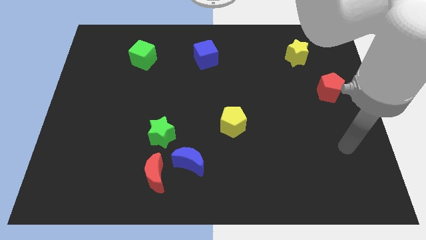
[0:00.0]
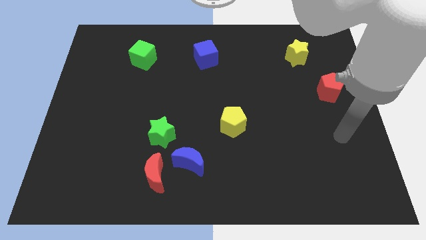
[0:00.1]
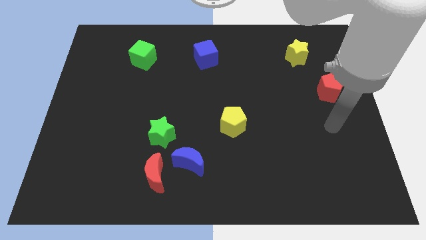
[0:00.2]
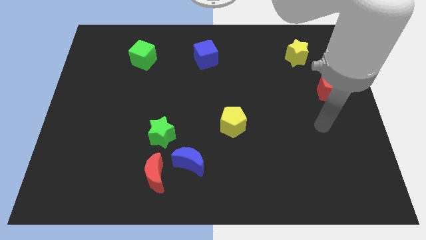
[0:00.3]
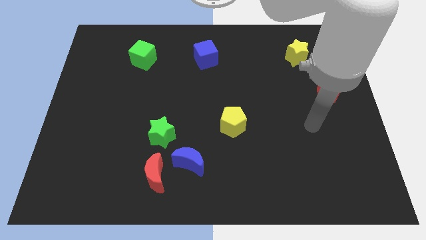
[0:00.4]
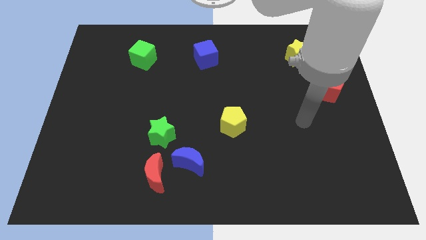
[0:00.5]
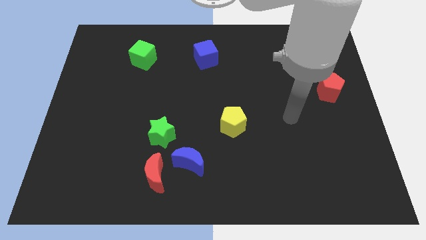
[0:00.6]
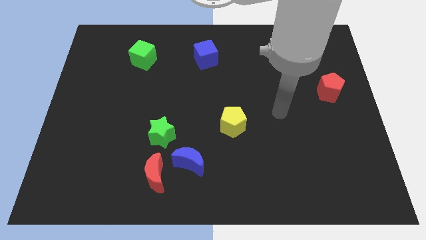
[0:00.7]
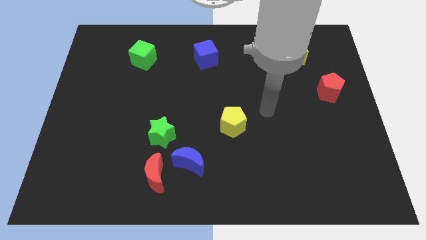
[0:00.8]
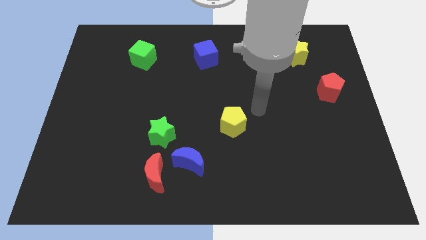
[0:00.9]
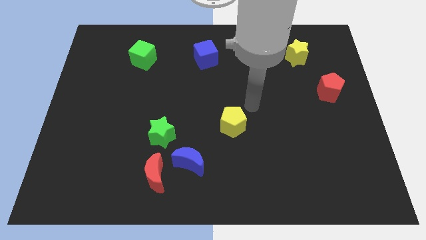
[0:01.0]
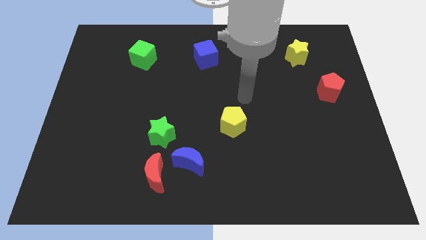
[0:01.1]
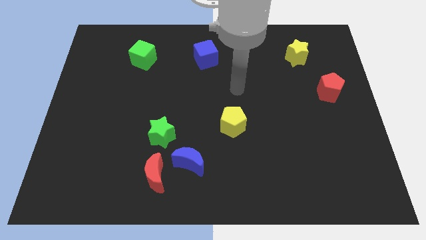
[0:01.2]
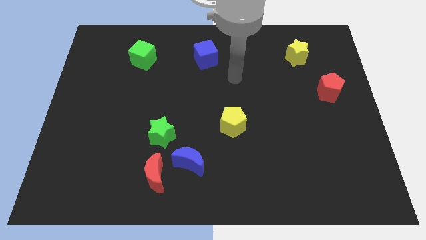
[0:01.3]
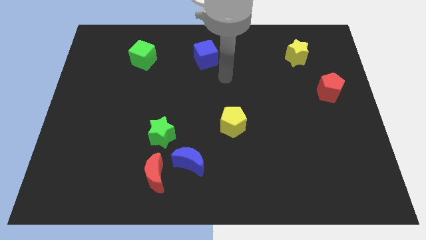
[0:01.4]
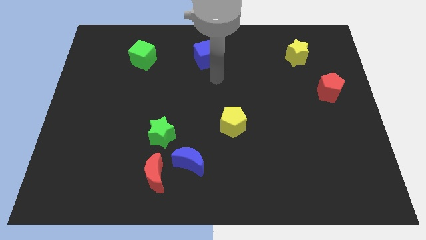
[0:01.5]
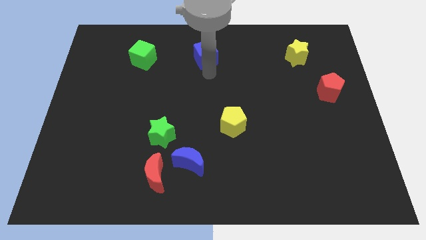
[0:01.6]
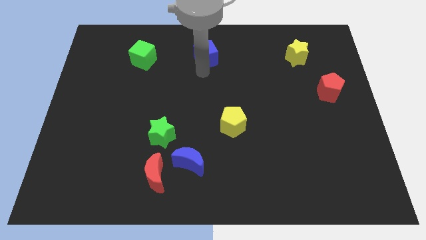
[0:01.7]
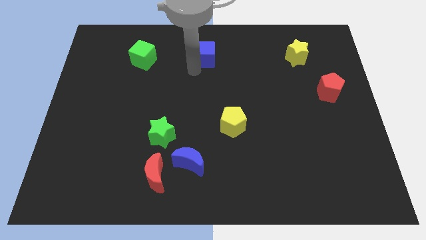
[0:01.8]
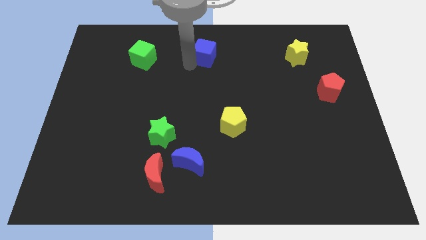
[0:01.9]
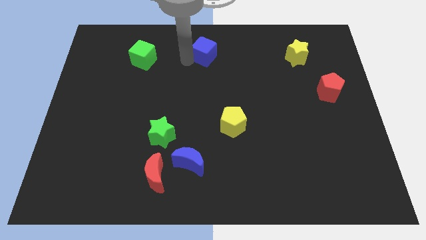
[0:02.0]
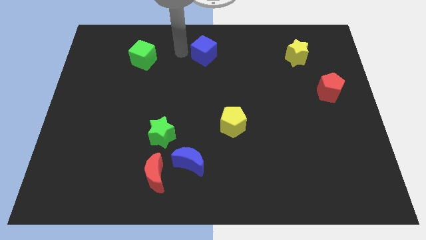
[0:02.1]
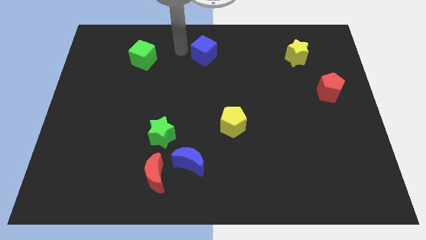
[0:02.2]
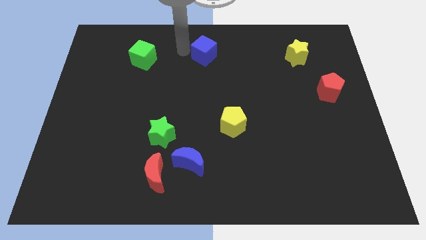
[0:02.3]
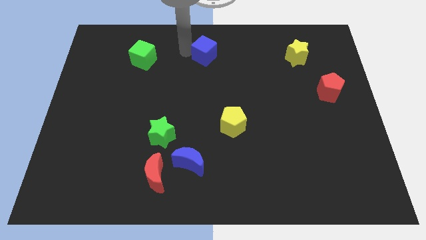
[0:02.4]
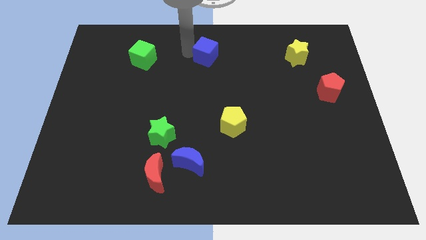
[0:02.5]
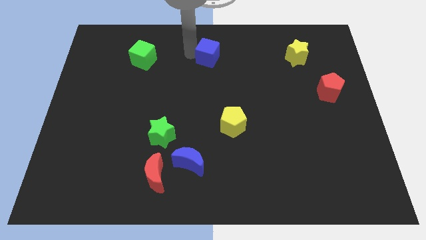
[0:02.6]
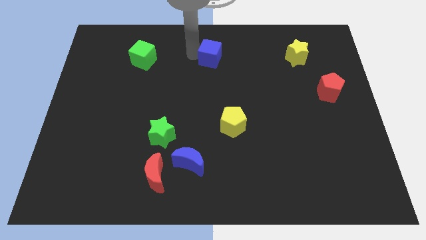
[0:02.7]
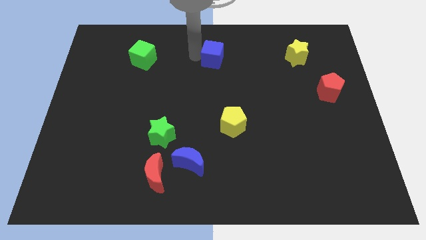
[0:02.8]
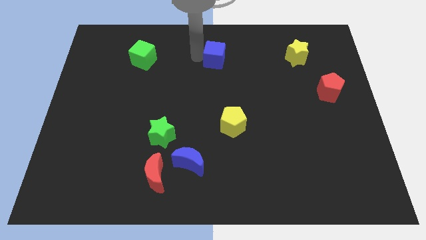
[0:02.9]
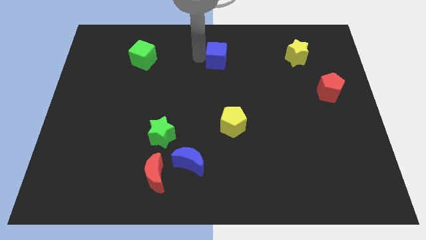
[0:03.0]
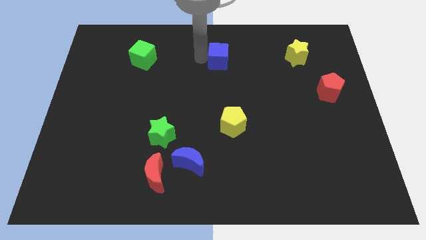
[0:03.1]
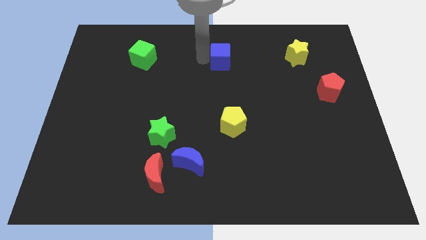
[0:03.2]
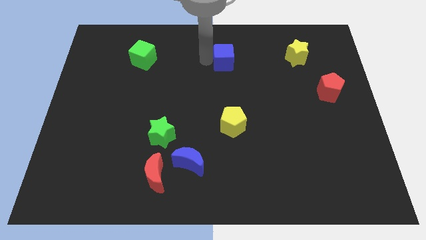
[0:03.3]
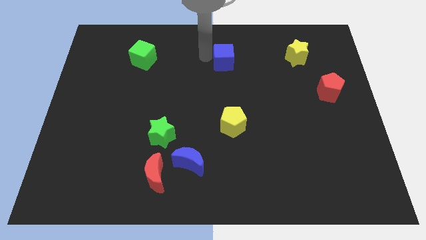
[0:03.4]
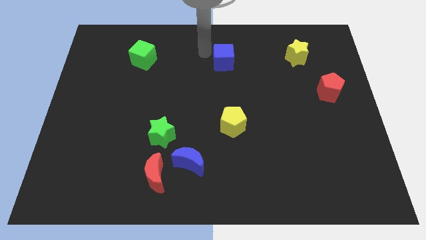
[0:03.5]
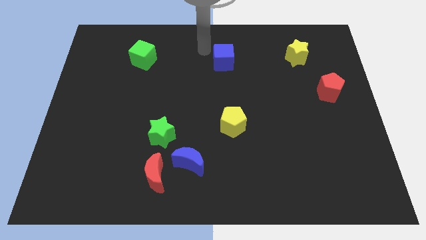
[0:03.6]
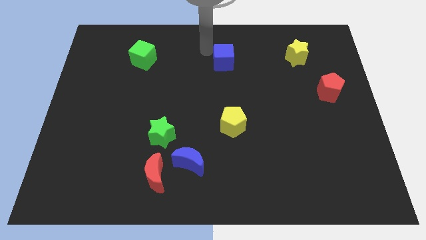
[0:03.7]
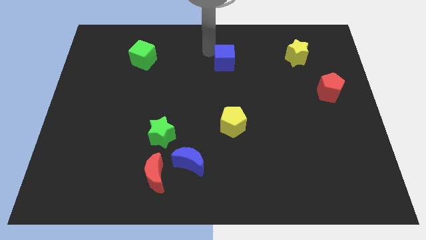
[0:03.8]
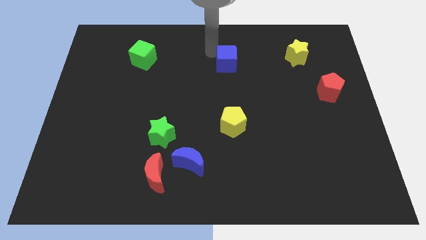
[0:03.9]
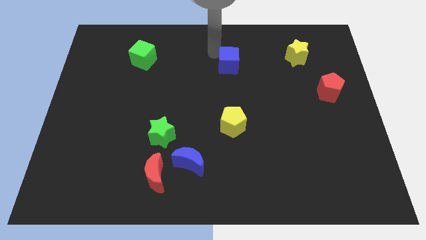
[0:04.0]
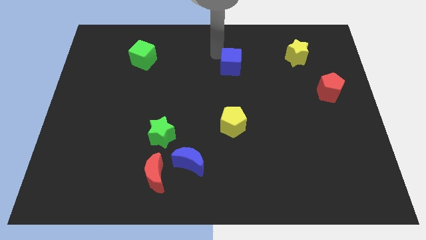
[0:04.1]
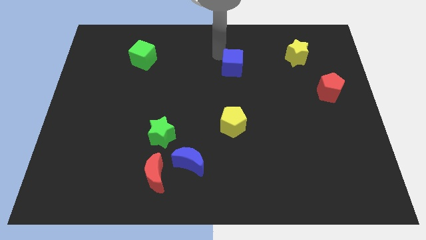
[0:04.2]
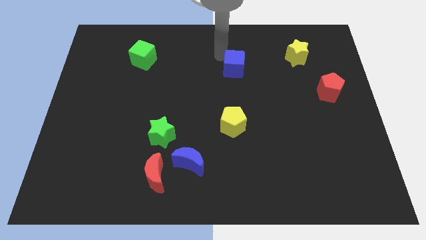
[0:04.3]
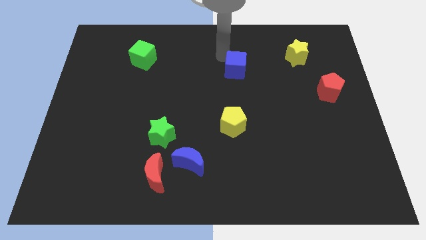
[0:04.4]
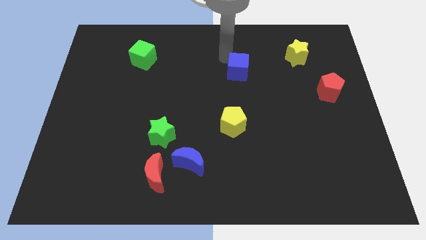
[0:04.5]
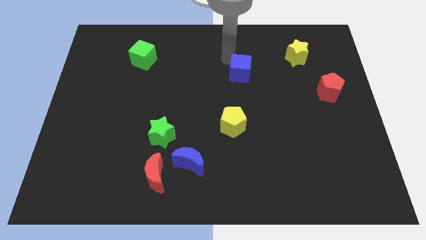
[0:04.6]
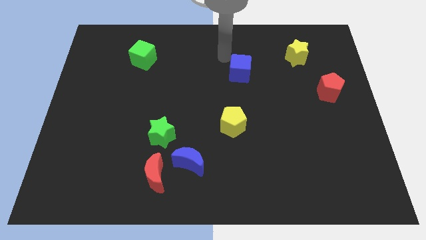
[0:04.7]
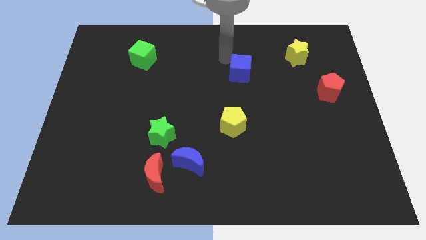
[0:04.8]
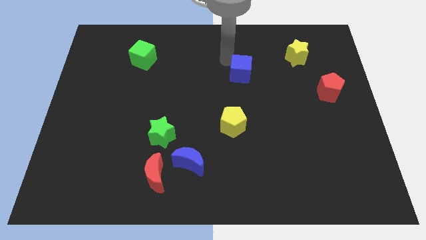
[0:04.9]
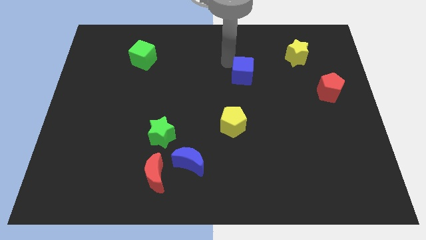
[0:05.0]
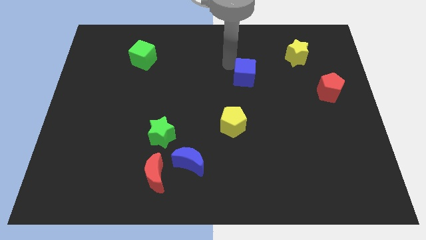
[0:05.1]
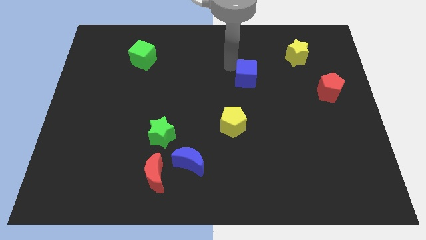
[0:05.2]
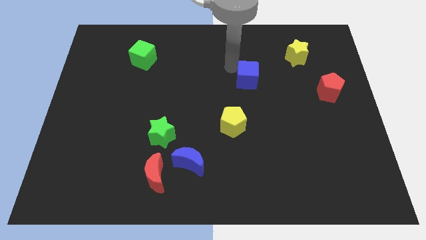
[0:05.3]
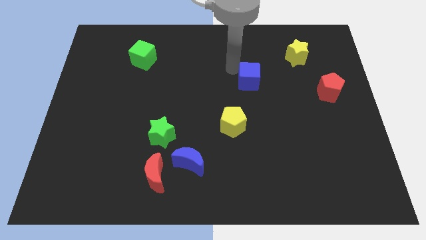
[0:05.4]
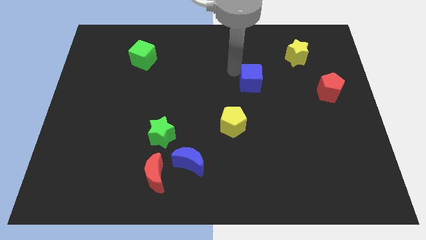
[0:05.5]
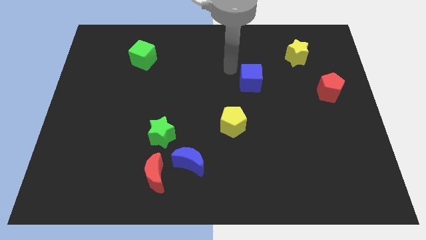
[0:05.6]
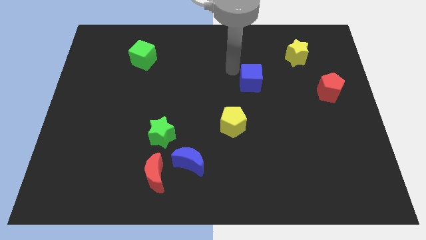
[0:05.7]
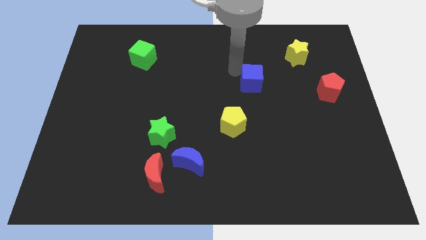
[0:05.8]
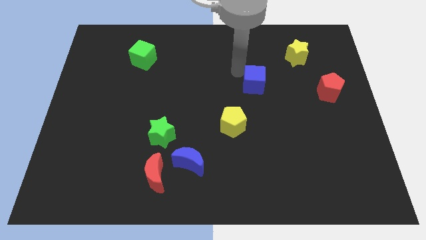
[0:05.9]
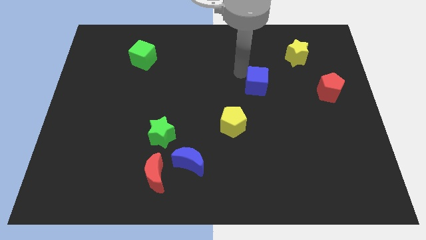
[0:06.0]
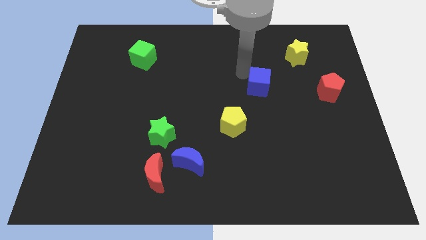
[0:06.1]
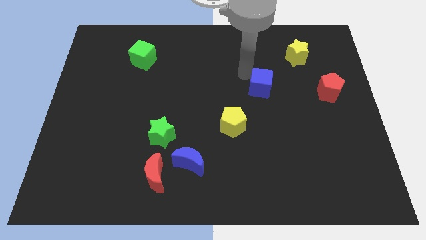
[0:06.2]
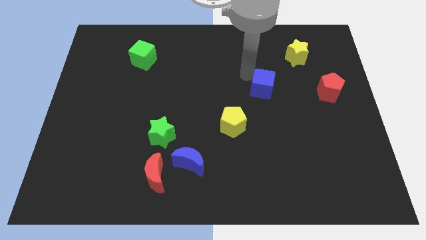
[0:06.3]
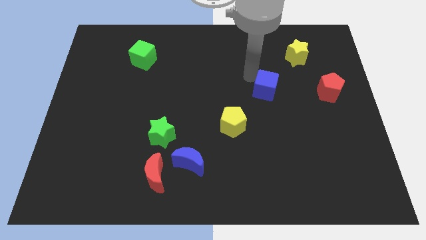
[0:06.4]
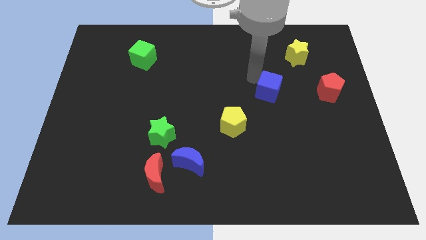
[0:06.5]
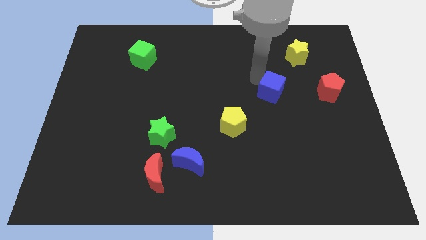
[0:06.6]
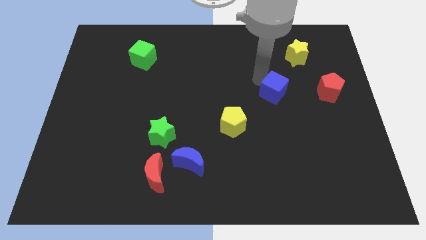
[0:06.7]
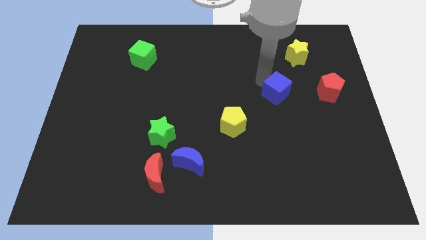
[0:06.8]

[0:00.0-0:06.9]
move the blue cube downwards and then right

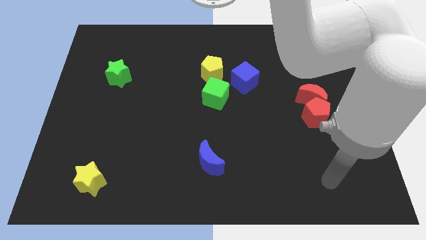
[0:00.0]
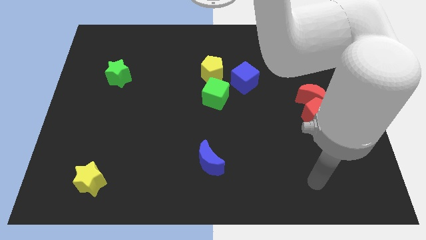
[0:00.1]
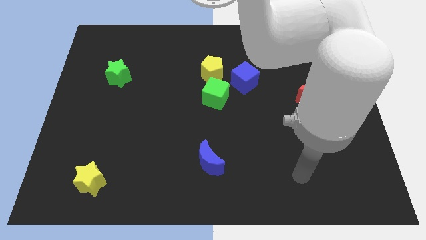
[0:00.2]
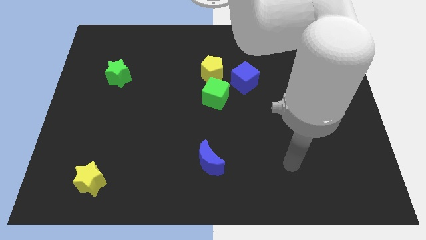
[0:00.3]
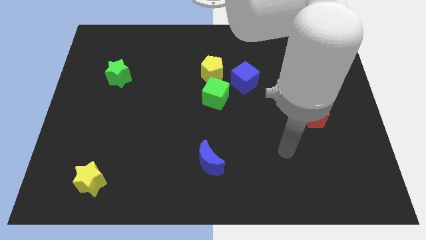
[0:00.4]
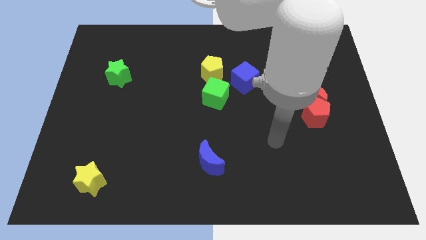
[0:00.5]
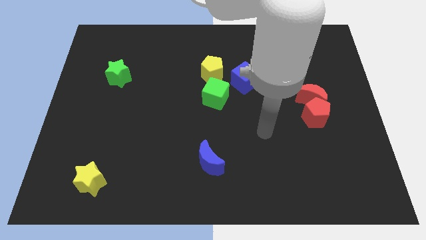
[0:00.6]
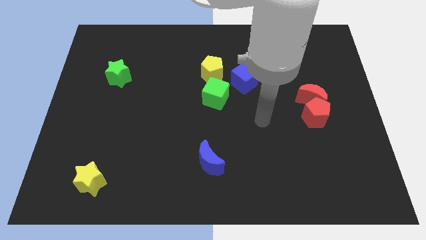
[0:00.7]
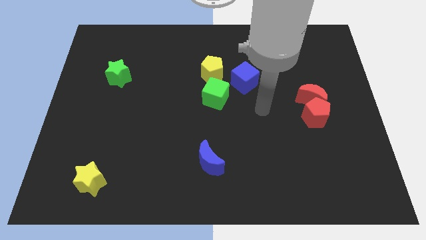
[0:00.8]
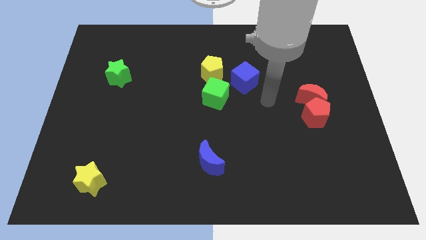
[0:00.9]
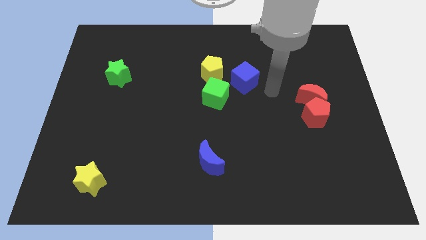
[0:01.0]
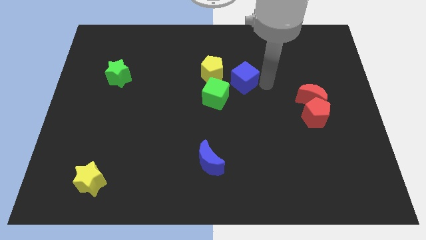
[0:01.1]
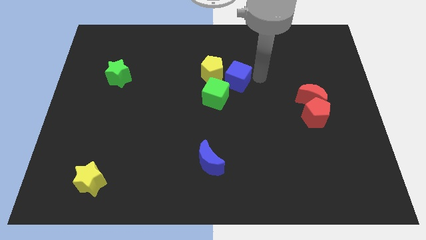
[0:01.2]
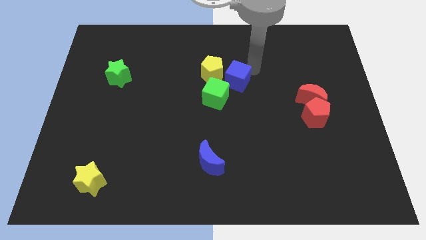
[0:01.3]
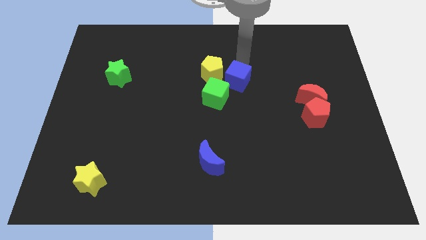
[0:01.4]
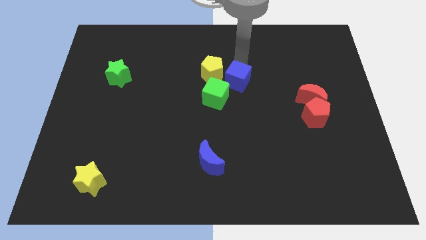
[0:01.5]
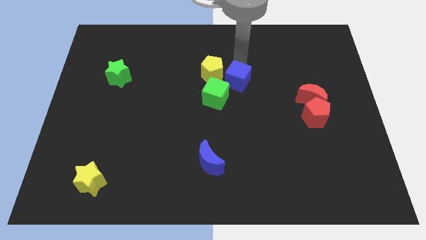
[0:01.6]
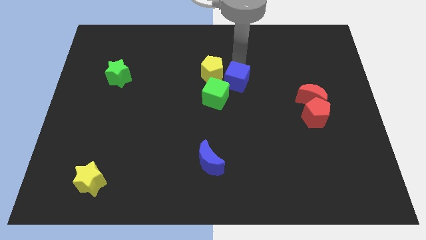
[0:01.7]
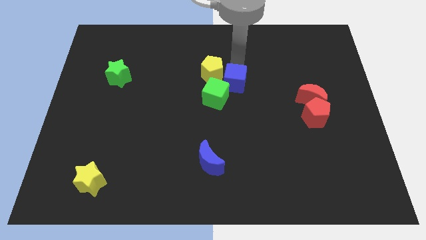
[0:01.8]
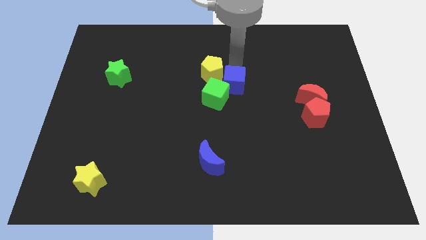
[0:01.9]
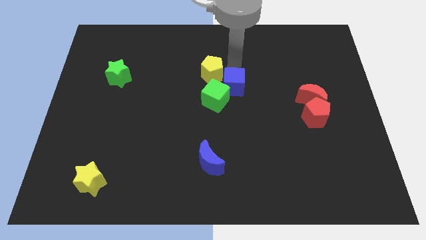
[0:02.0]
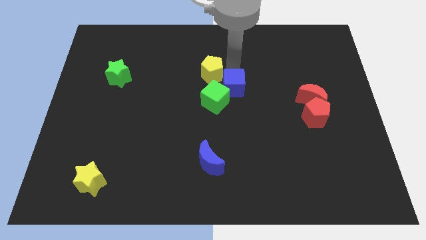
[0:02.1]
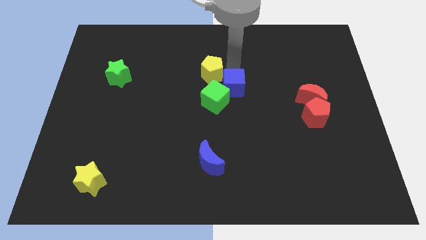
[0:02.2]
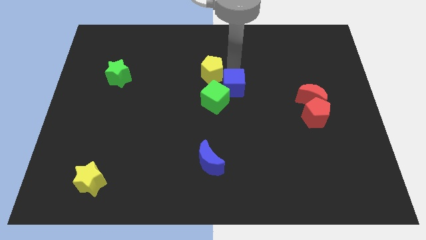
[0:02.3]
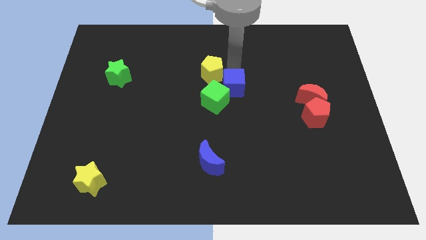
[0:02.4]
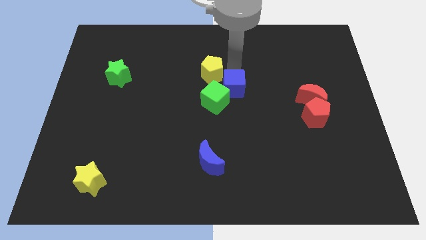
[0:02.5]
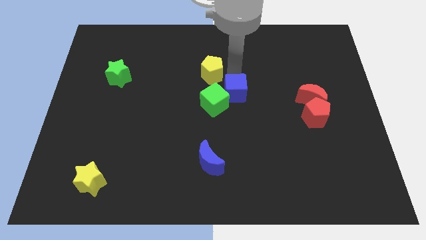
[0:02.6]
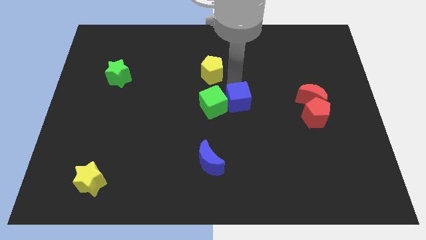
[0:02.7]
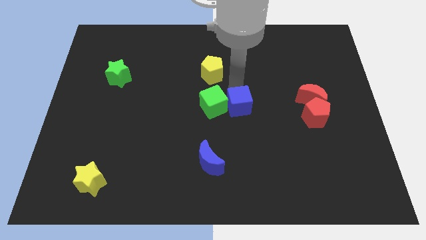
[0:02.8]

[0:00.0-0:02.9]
slightly move the blue cube down
